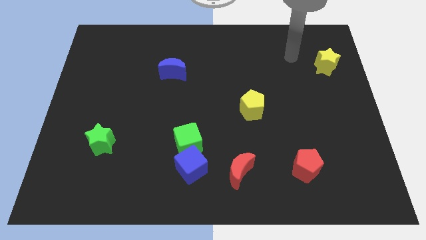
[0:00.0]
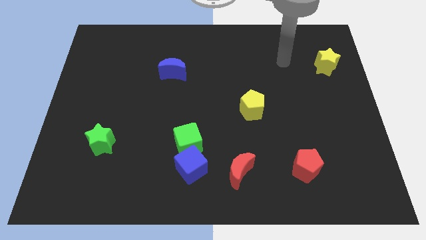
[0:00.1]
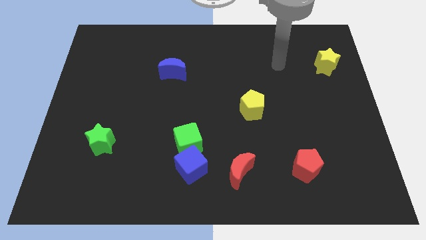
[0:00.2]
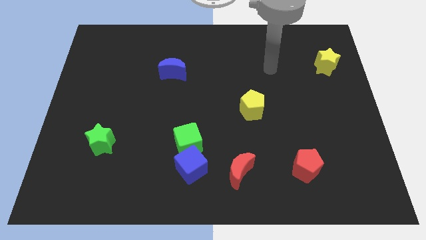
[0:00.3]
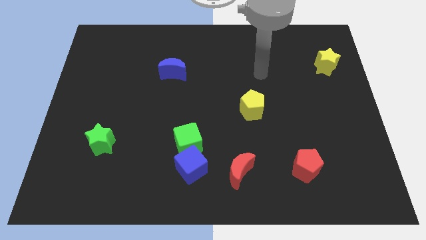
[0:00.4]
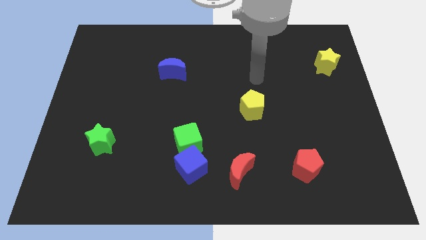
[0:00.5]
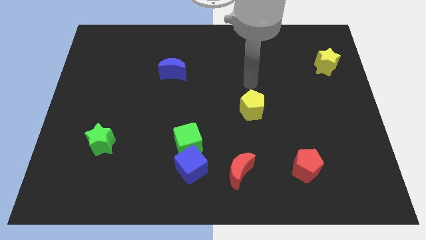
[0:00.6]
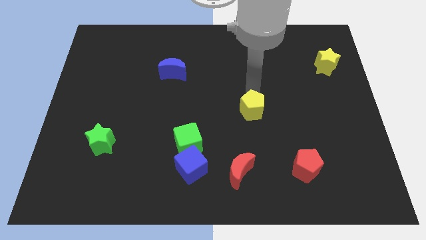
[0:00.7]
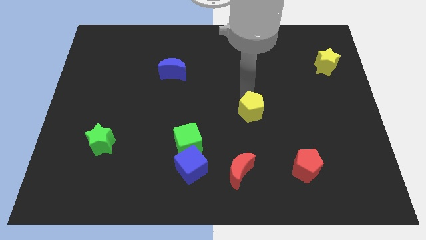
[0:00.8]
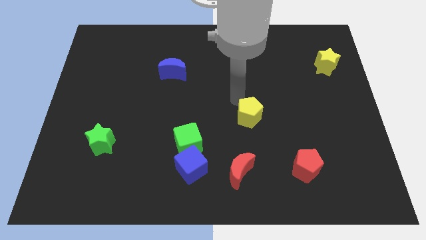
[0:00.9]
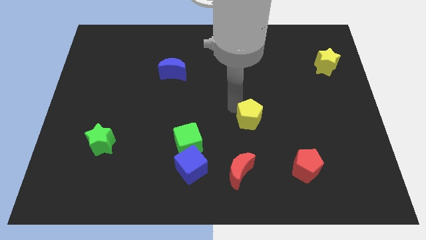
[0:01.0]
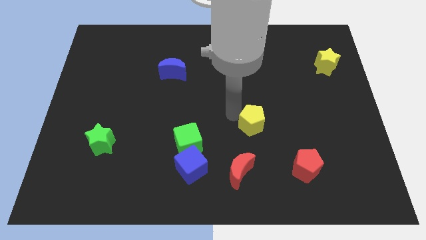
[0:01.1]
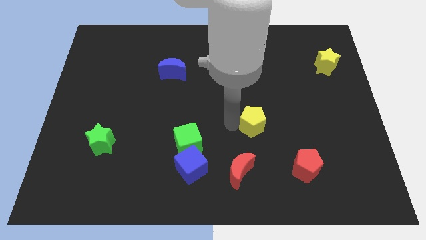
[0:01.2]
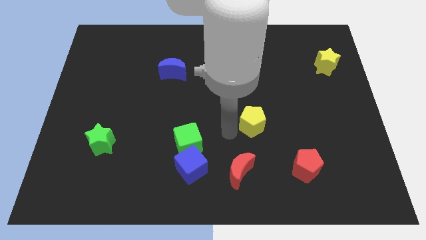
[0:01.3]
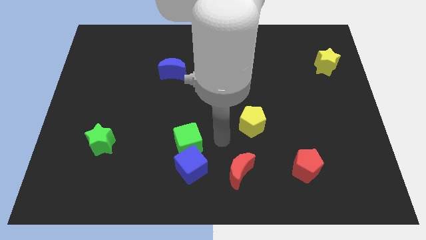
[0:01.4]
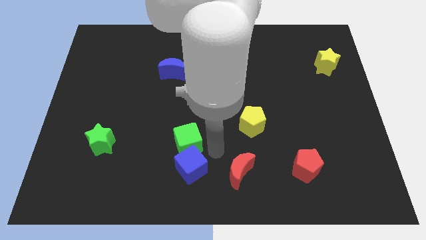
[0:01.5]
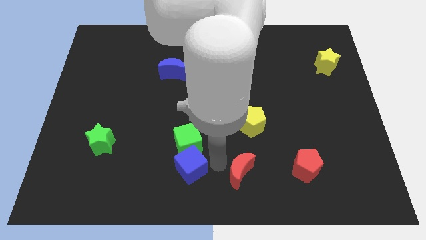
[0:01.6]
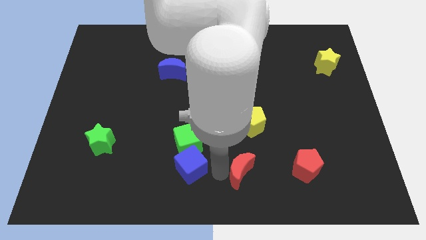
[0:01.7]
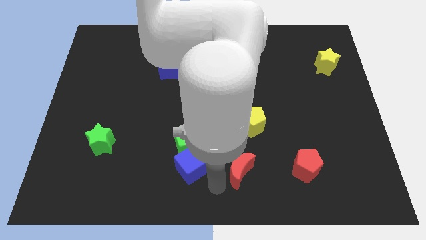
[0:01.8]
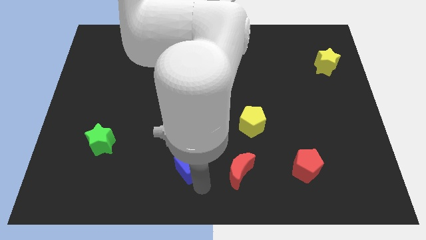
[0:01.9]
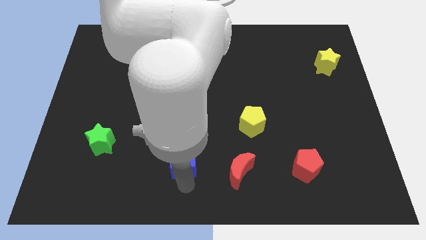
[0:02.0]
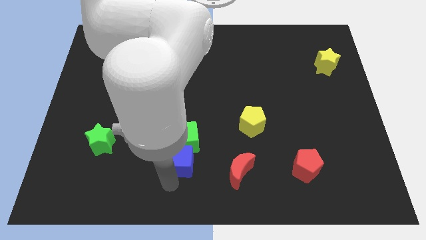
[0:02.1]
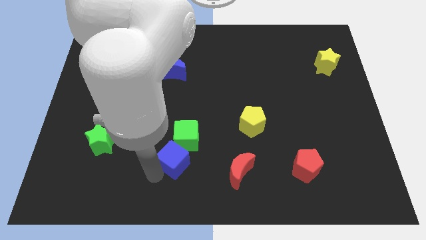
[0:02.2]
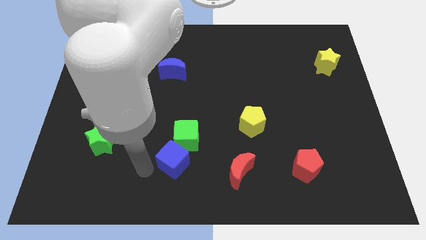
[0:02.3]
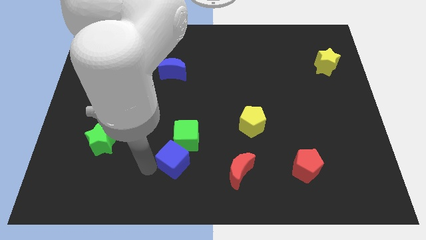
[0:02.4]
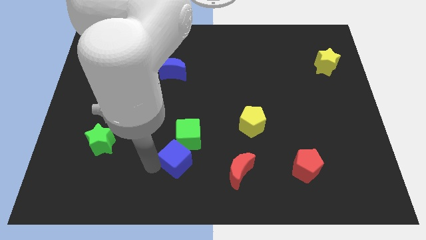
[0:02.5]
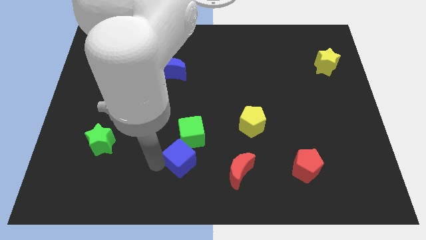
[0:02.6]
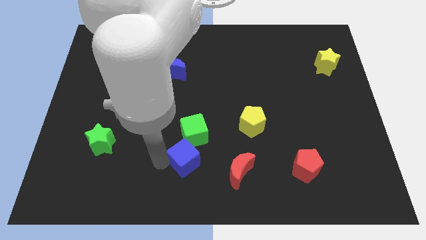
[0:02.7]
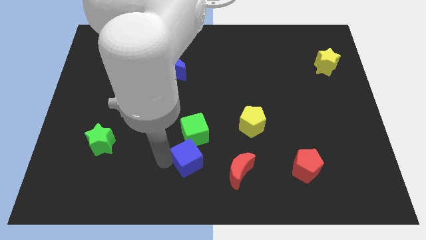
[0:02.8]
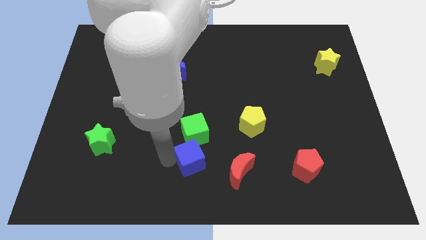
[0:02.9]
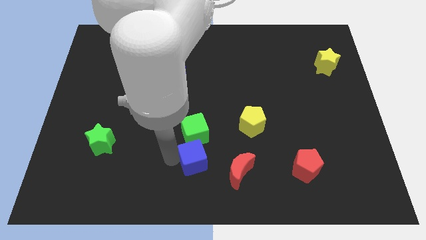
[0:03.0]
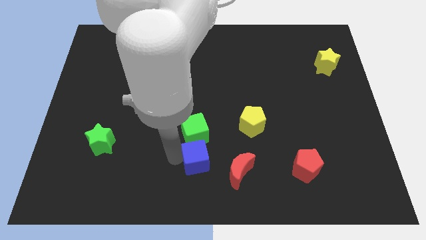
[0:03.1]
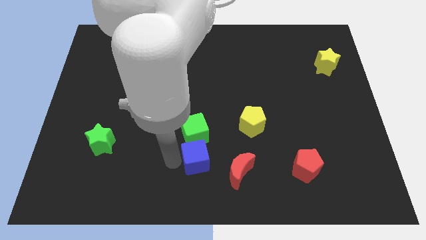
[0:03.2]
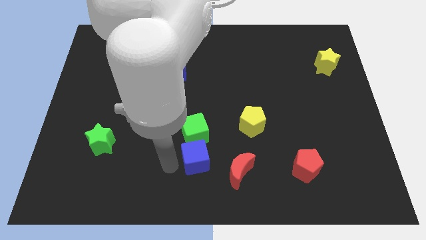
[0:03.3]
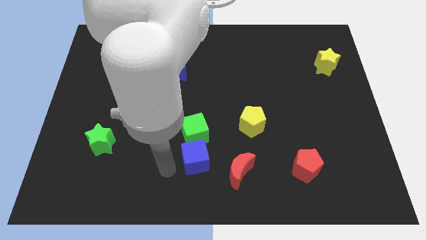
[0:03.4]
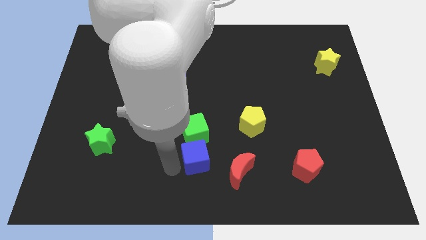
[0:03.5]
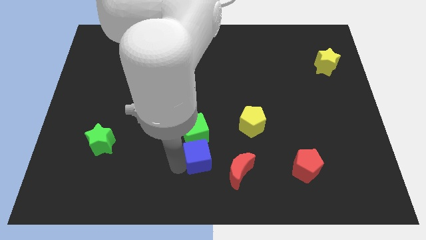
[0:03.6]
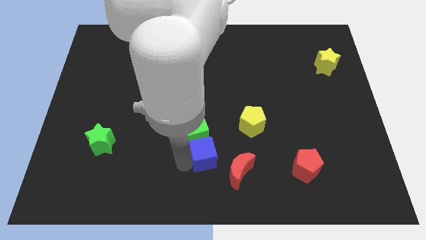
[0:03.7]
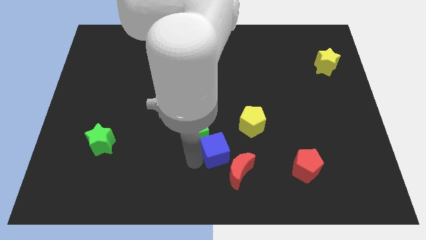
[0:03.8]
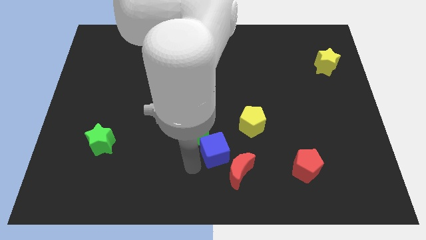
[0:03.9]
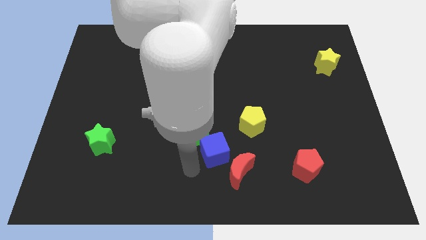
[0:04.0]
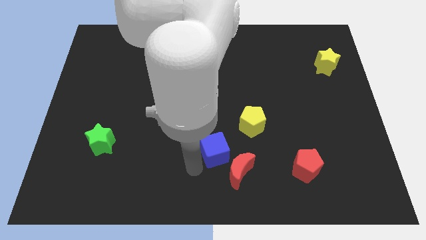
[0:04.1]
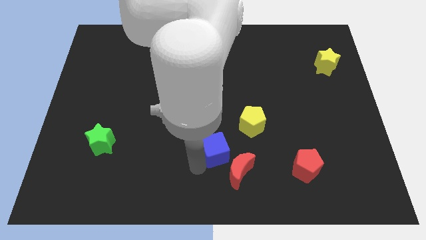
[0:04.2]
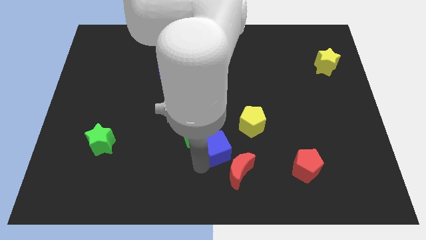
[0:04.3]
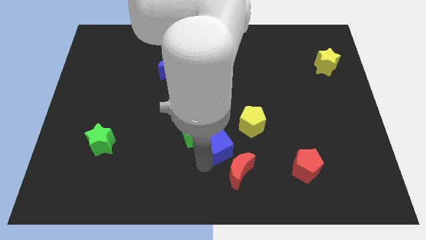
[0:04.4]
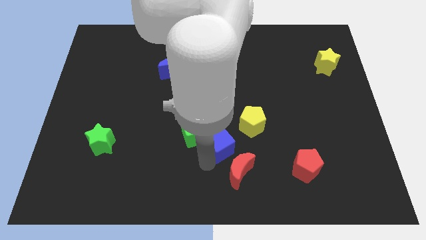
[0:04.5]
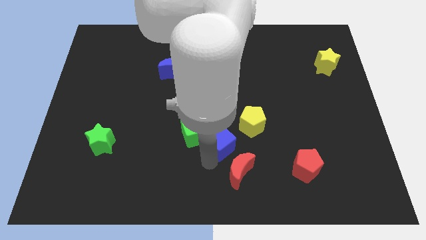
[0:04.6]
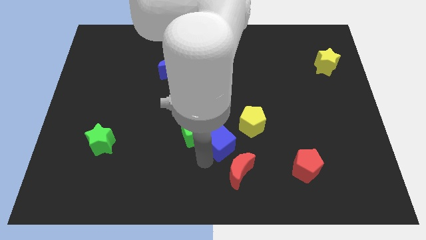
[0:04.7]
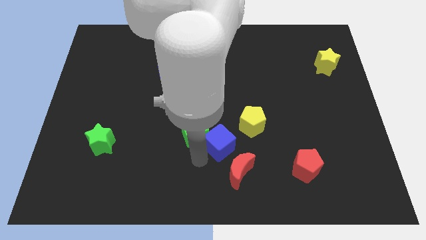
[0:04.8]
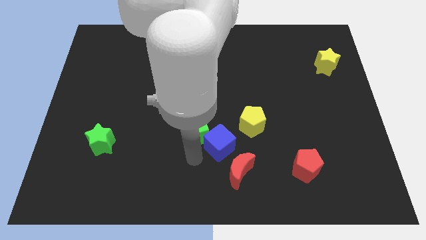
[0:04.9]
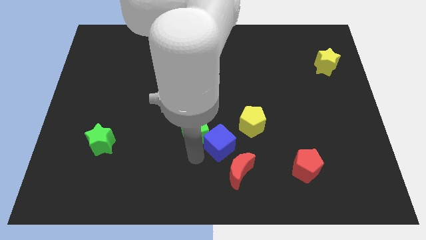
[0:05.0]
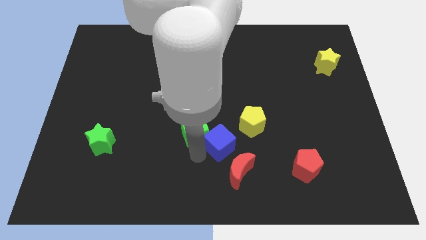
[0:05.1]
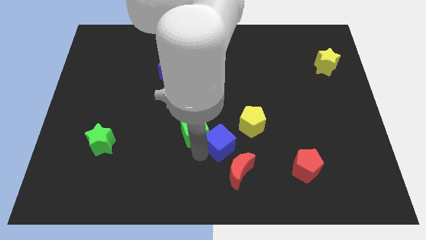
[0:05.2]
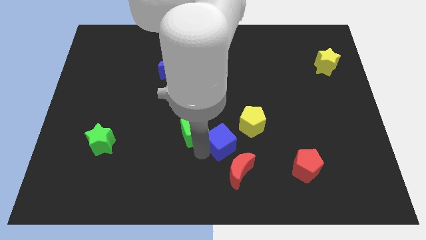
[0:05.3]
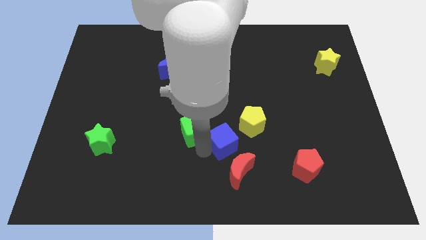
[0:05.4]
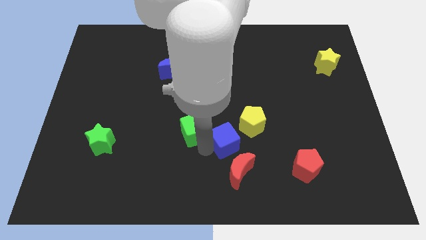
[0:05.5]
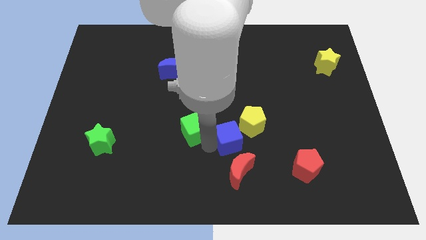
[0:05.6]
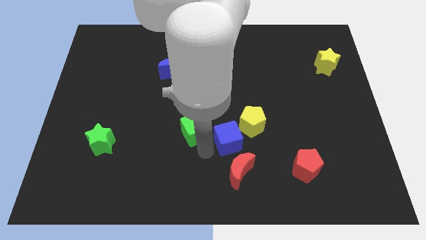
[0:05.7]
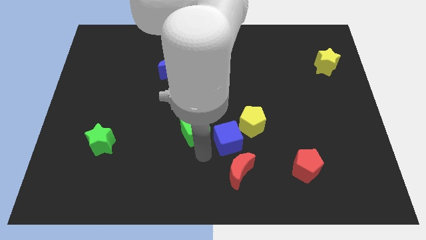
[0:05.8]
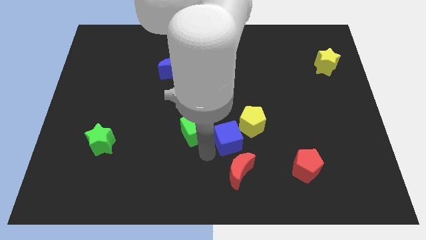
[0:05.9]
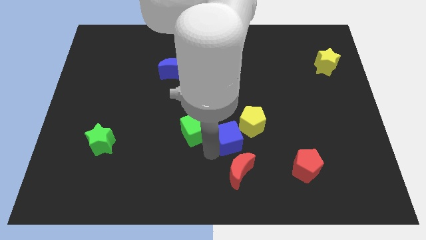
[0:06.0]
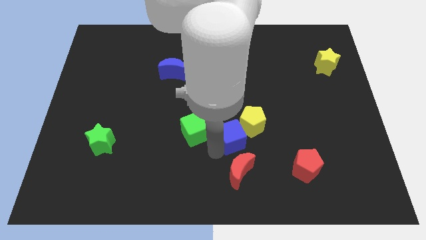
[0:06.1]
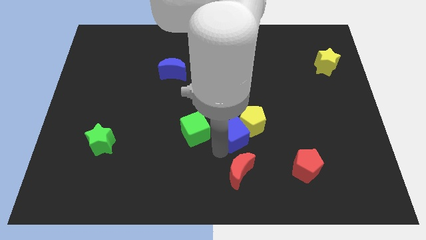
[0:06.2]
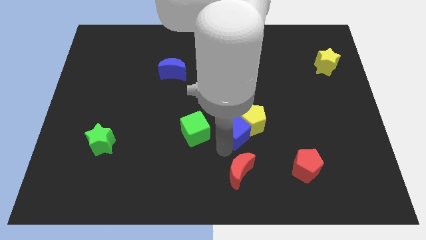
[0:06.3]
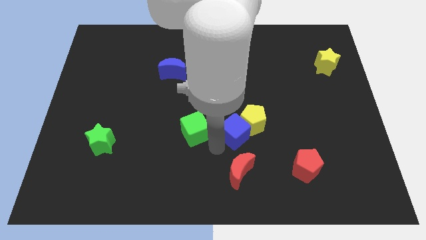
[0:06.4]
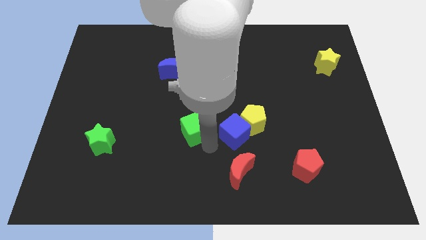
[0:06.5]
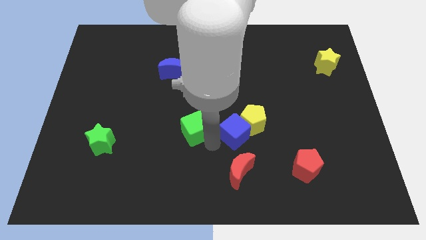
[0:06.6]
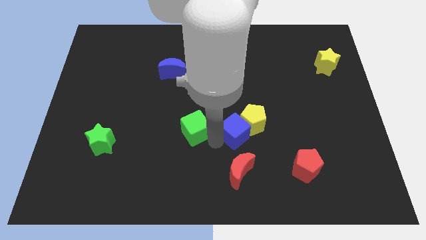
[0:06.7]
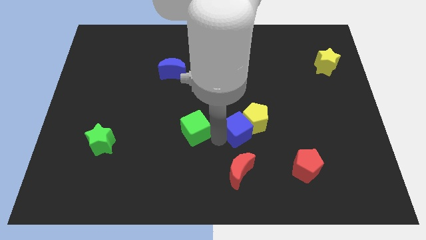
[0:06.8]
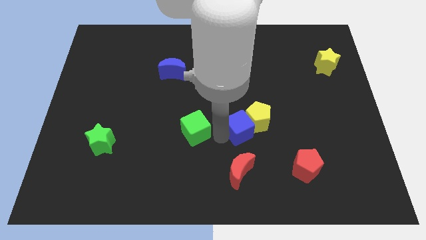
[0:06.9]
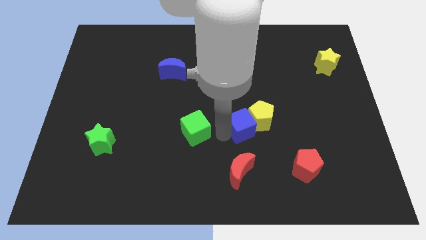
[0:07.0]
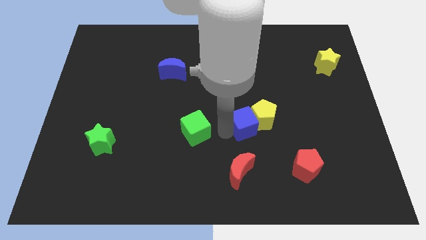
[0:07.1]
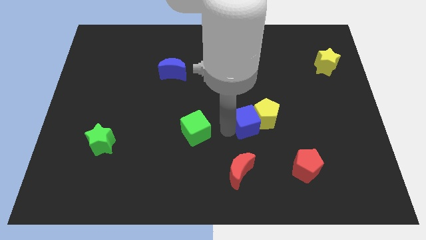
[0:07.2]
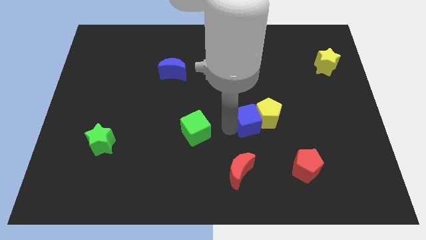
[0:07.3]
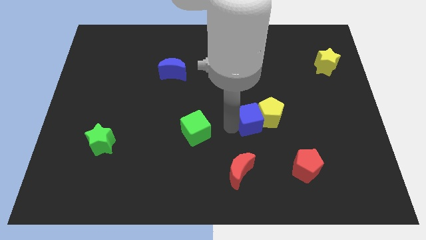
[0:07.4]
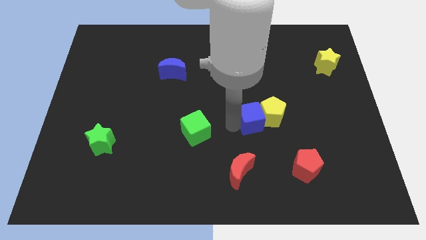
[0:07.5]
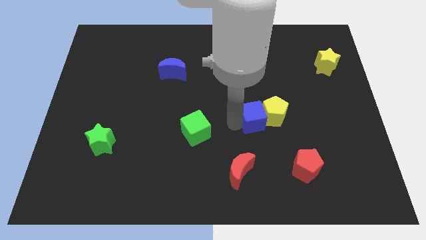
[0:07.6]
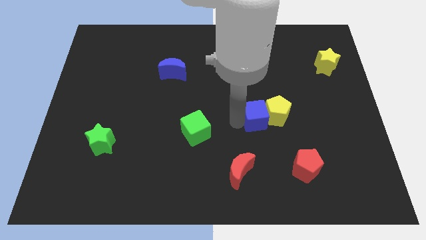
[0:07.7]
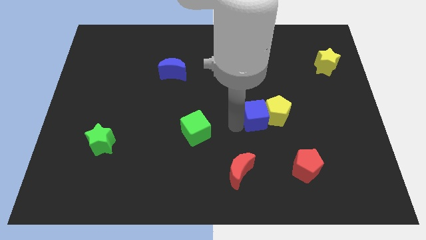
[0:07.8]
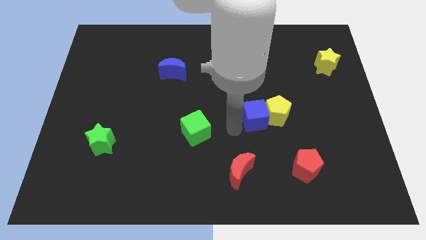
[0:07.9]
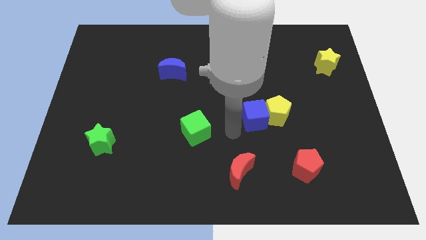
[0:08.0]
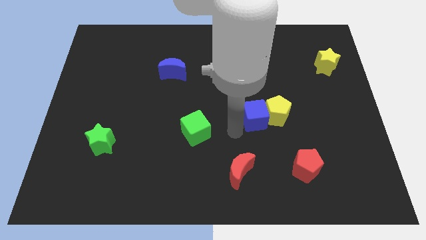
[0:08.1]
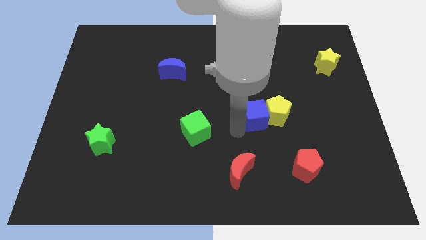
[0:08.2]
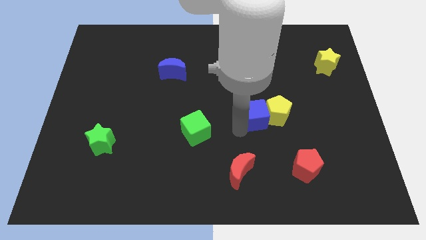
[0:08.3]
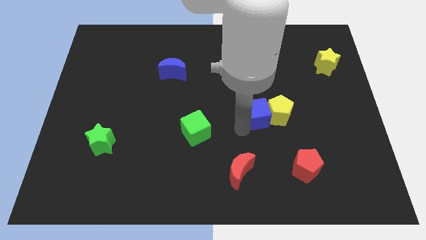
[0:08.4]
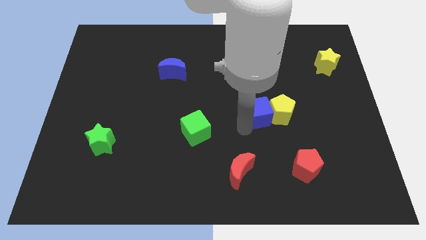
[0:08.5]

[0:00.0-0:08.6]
slide the blue cube upwards and to the right diagonally

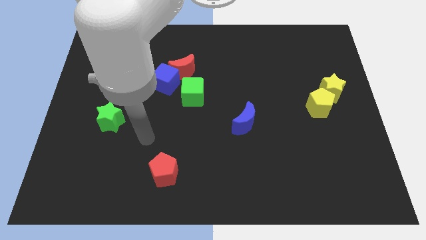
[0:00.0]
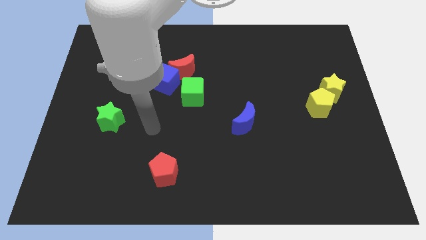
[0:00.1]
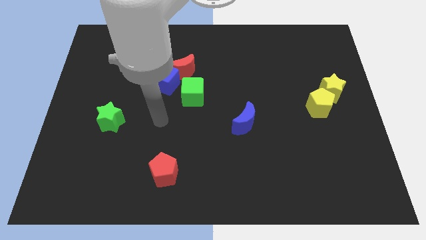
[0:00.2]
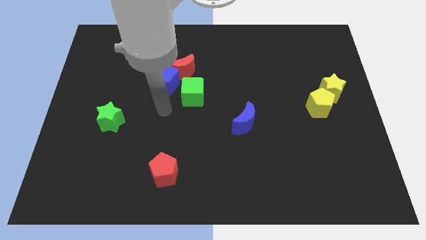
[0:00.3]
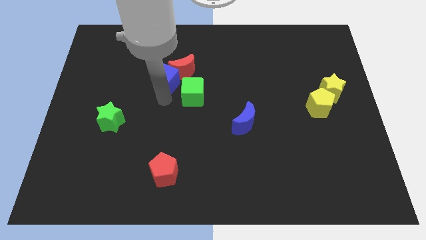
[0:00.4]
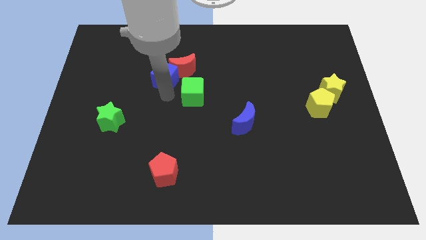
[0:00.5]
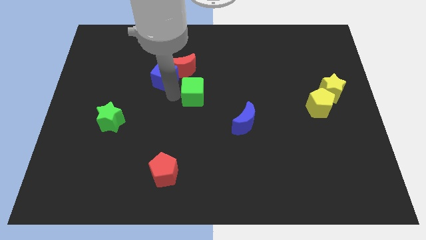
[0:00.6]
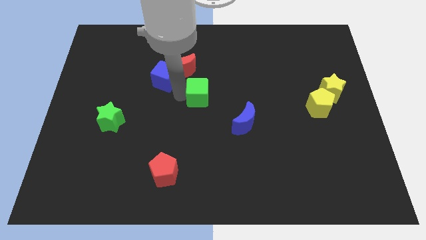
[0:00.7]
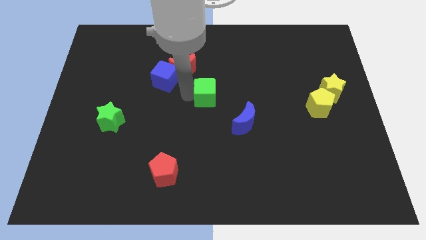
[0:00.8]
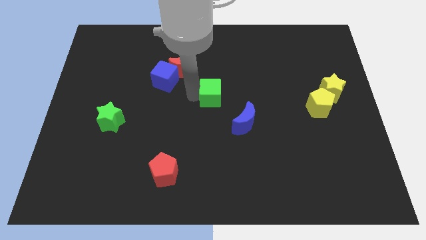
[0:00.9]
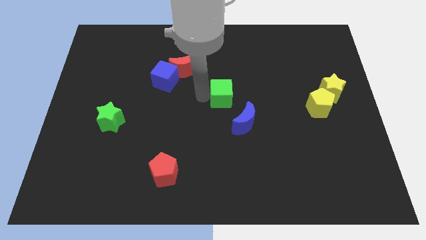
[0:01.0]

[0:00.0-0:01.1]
slightly push the green cube to the right
